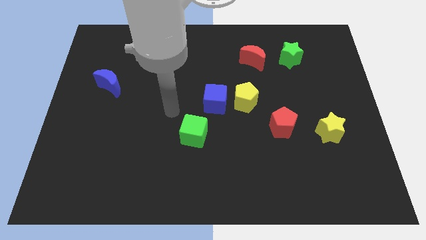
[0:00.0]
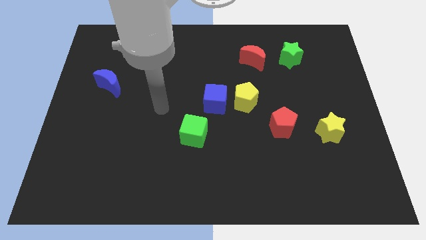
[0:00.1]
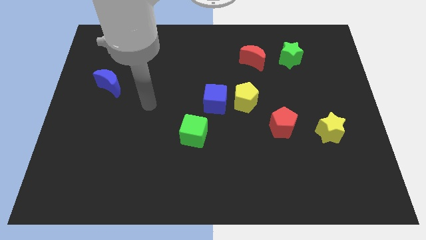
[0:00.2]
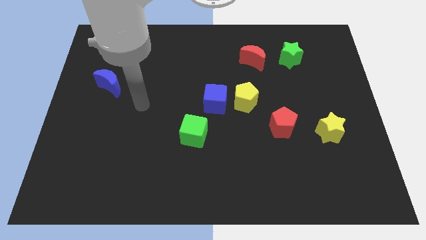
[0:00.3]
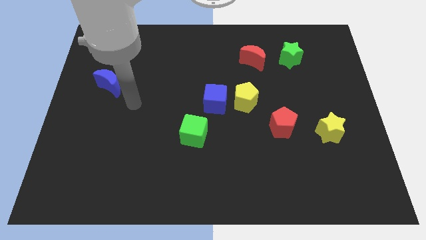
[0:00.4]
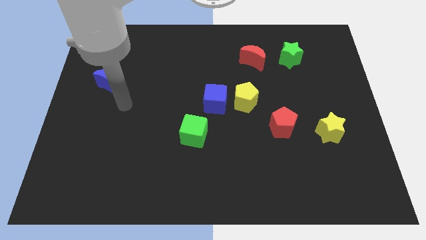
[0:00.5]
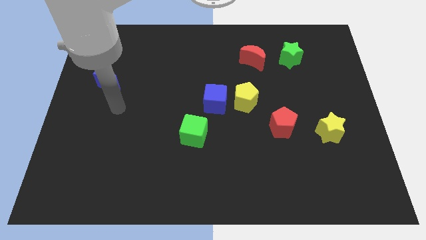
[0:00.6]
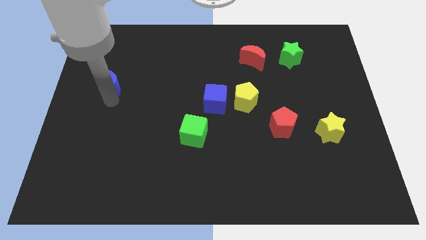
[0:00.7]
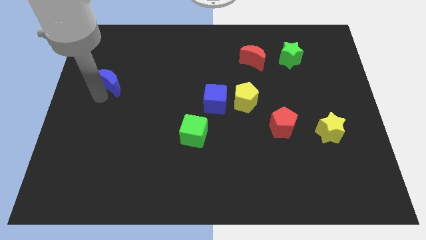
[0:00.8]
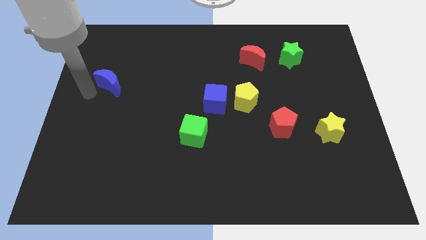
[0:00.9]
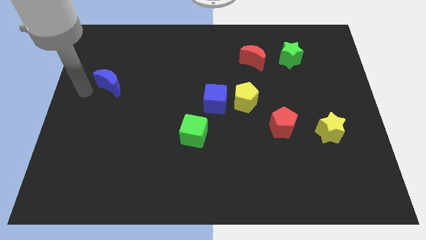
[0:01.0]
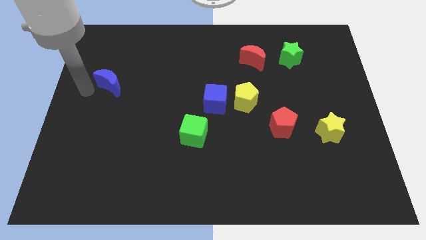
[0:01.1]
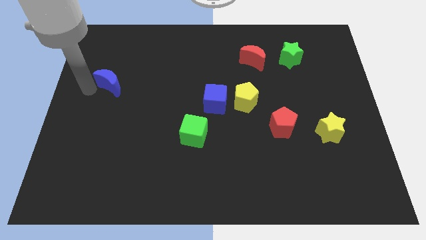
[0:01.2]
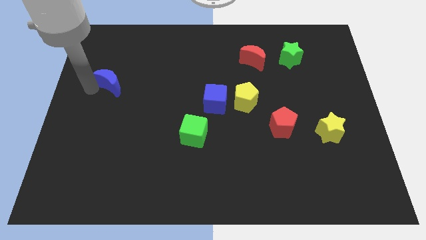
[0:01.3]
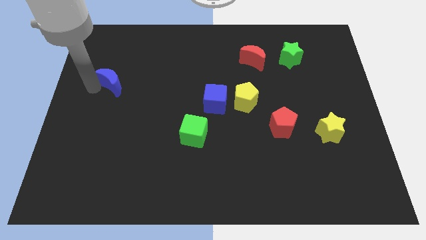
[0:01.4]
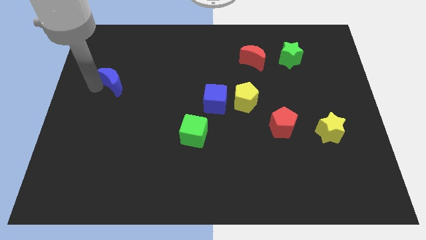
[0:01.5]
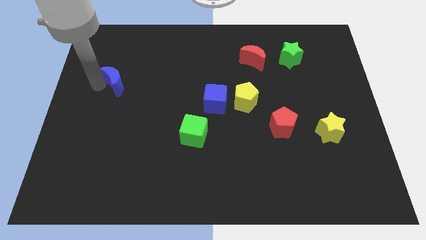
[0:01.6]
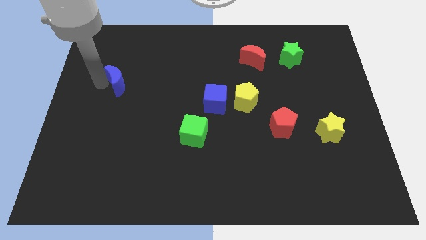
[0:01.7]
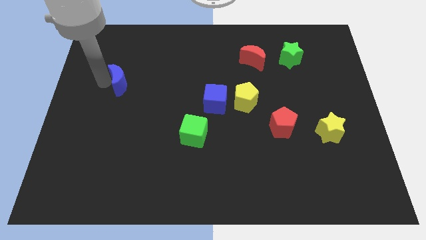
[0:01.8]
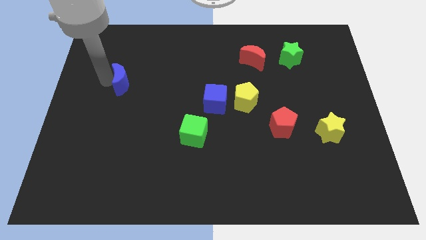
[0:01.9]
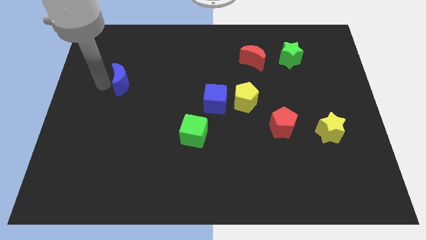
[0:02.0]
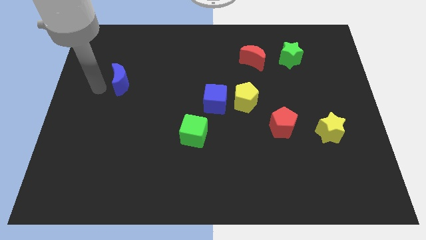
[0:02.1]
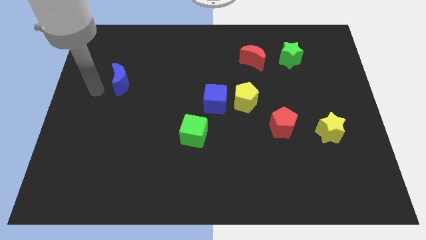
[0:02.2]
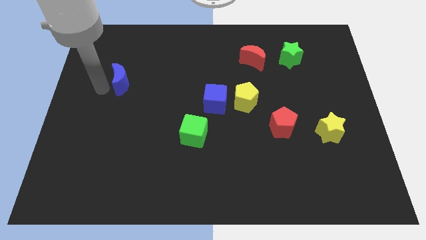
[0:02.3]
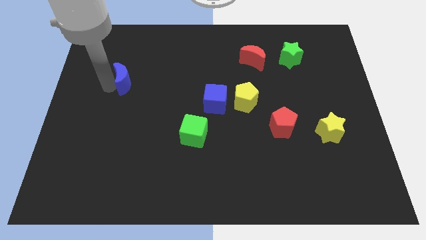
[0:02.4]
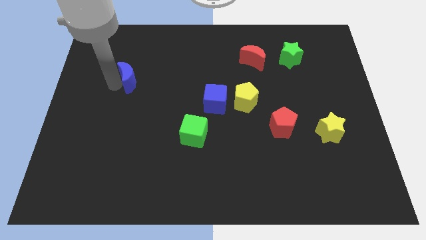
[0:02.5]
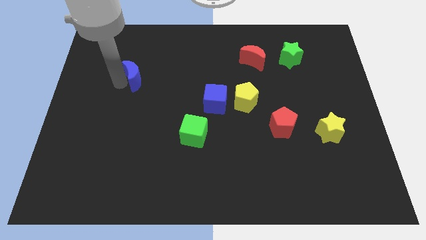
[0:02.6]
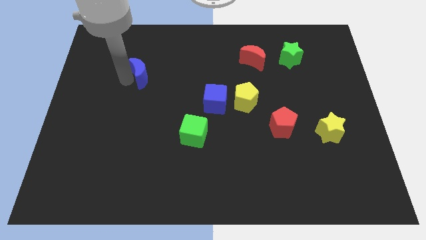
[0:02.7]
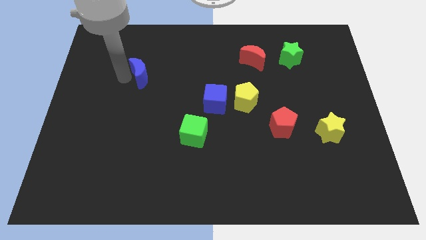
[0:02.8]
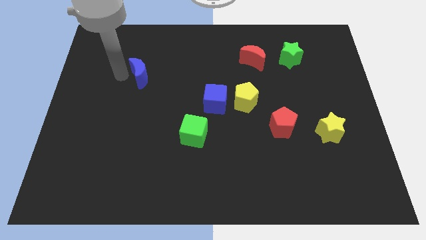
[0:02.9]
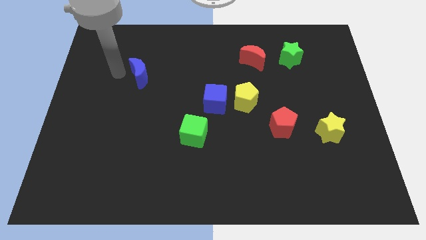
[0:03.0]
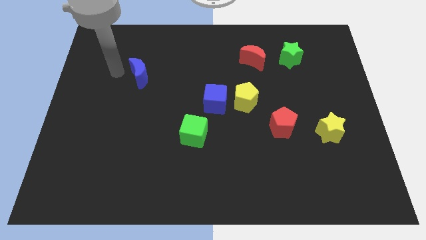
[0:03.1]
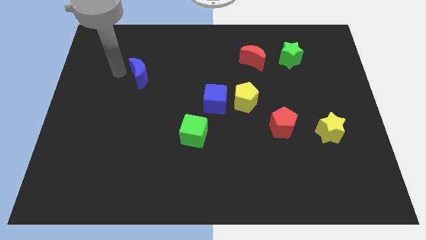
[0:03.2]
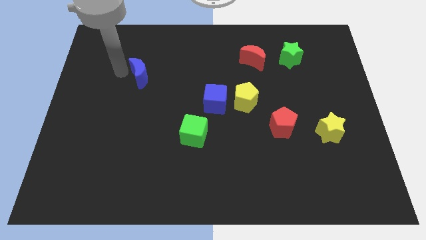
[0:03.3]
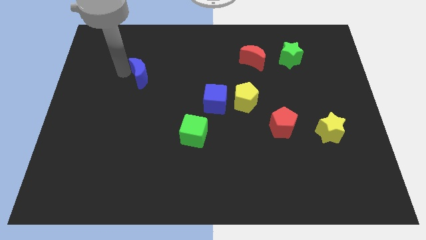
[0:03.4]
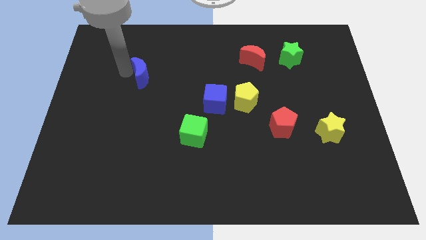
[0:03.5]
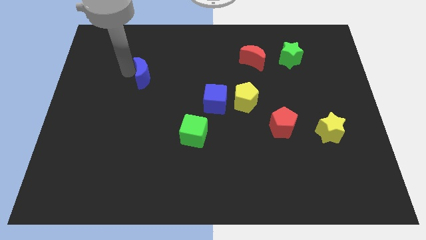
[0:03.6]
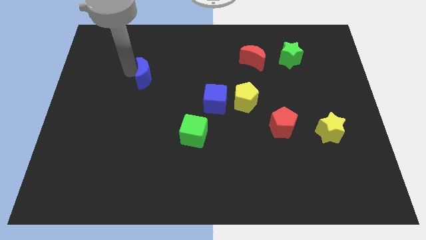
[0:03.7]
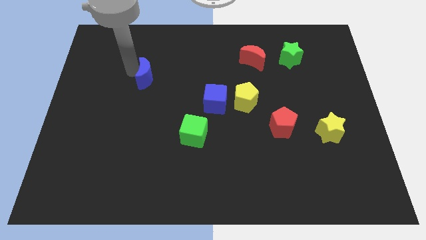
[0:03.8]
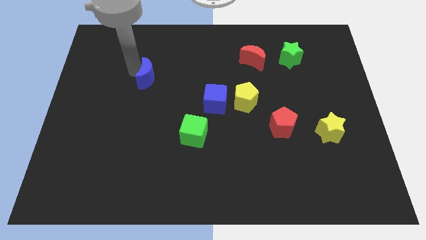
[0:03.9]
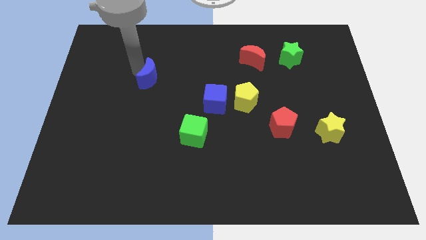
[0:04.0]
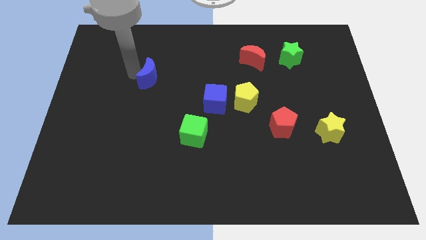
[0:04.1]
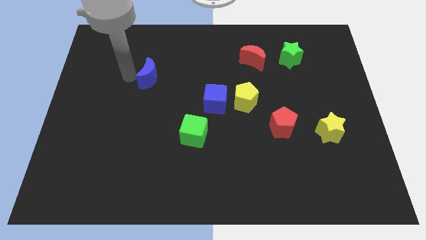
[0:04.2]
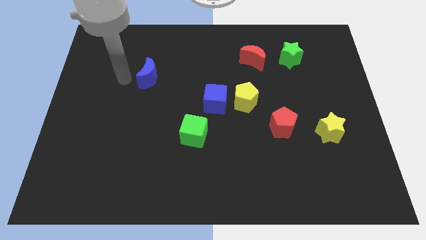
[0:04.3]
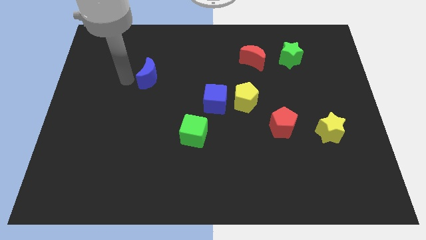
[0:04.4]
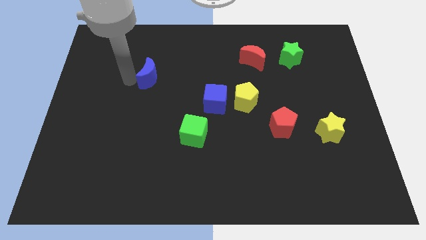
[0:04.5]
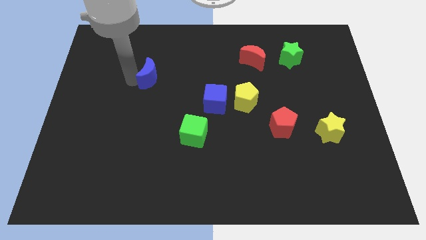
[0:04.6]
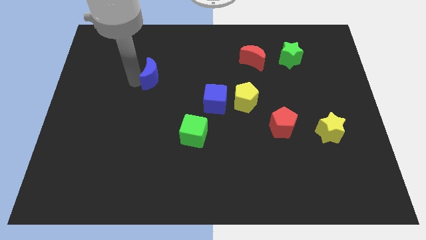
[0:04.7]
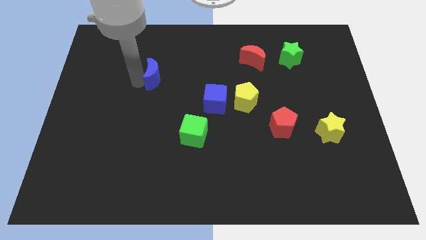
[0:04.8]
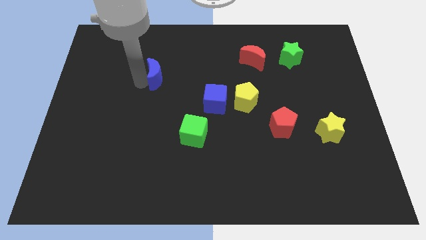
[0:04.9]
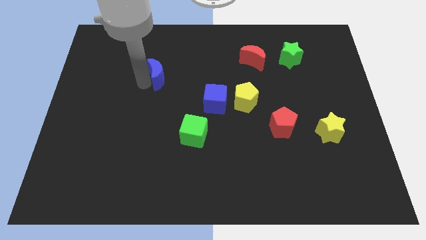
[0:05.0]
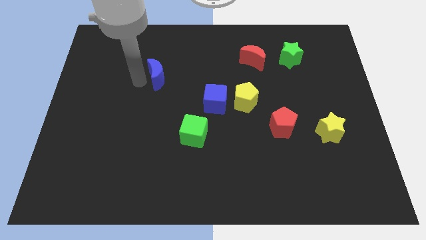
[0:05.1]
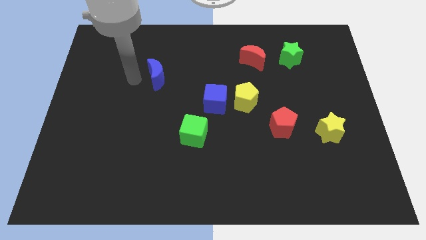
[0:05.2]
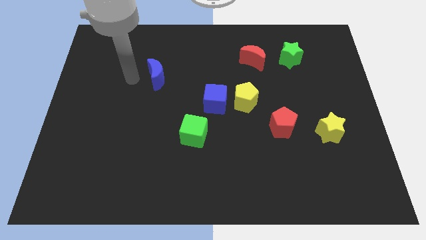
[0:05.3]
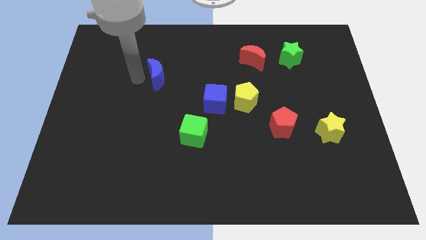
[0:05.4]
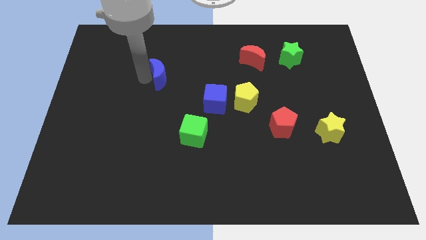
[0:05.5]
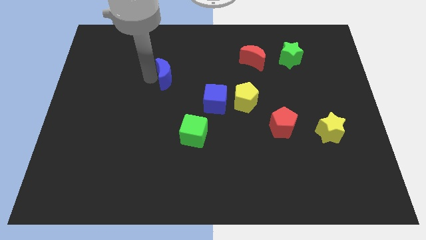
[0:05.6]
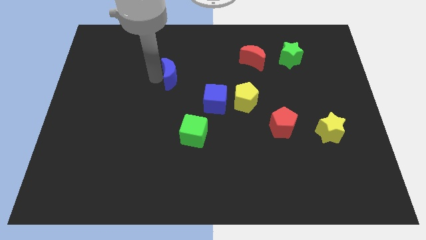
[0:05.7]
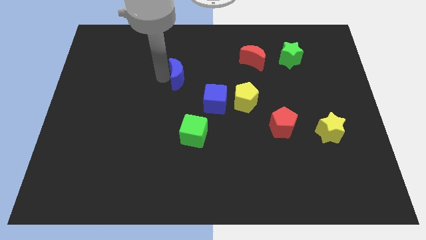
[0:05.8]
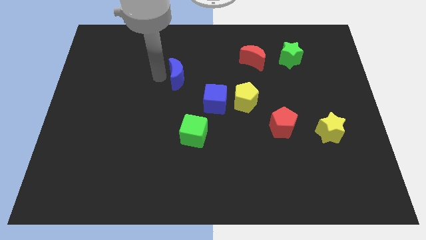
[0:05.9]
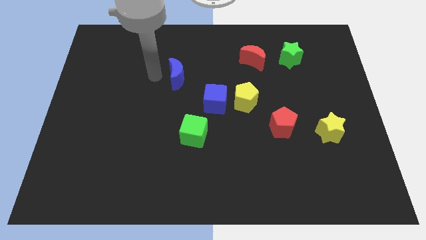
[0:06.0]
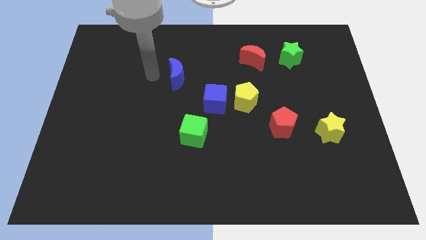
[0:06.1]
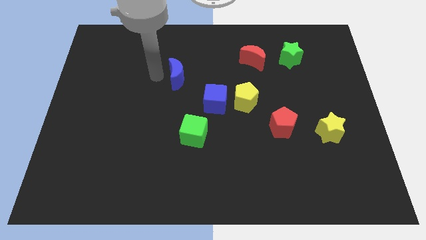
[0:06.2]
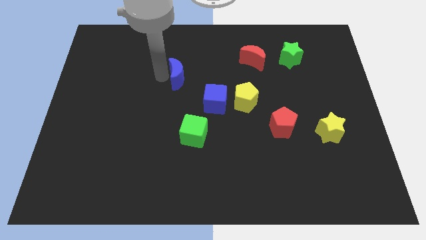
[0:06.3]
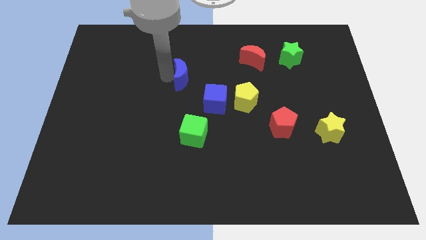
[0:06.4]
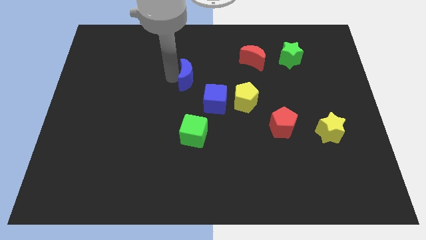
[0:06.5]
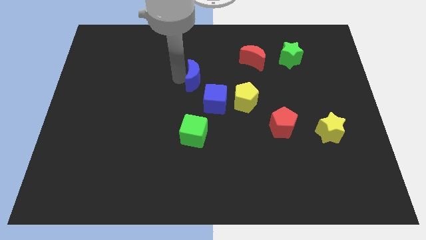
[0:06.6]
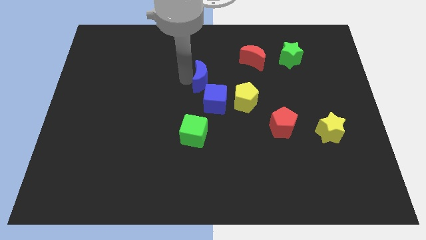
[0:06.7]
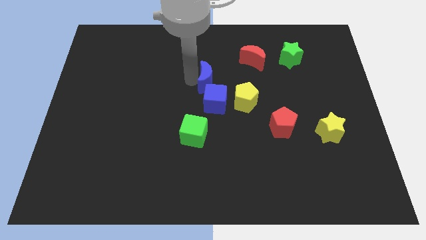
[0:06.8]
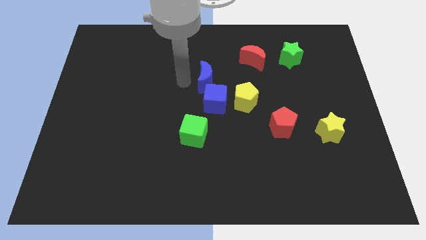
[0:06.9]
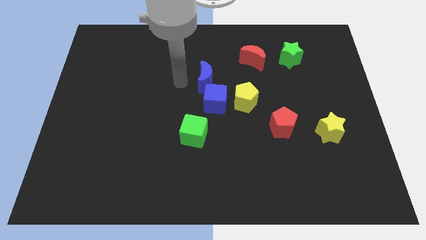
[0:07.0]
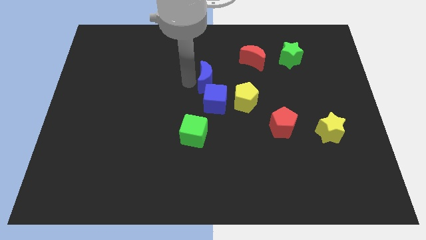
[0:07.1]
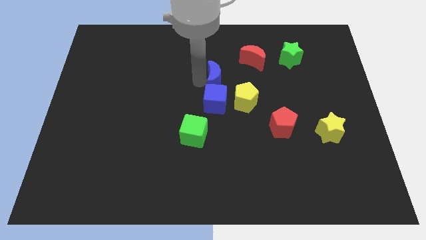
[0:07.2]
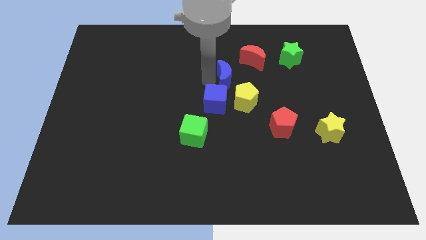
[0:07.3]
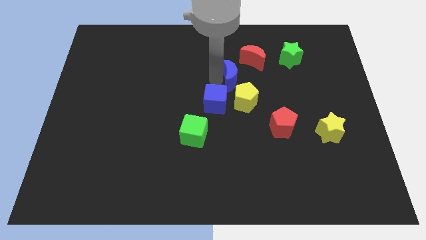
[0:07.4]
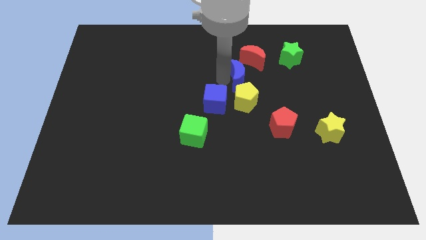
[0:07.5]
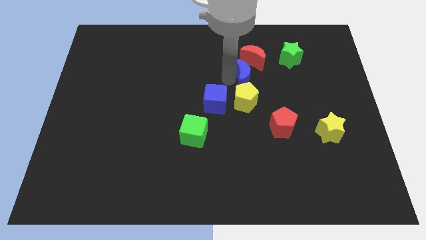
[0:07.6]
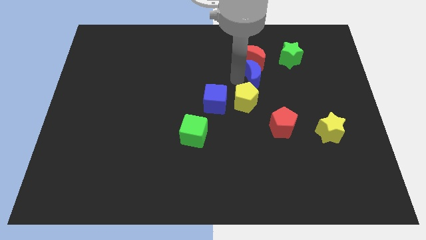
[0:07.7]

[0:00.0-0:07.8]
move the blue moon to the bottom right of the red moon
